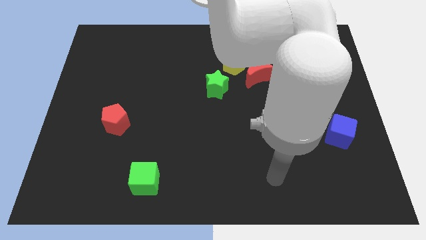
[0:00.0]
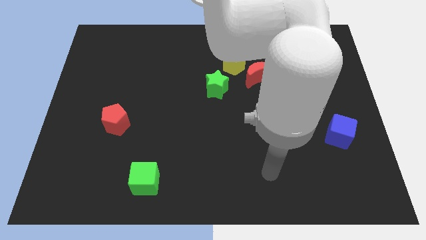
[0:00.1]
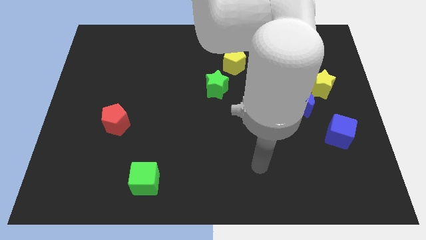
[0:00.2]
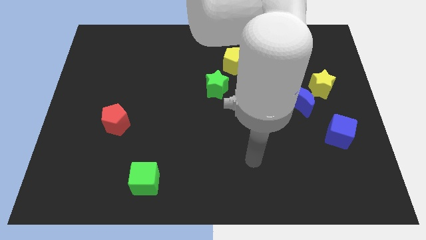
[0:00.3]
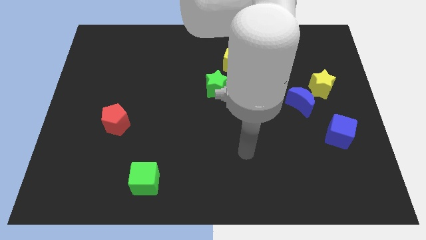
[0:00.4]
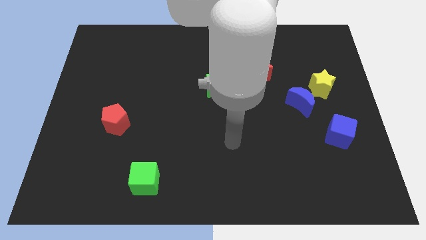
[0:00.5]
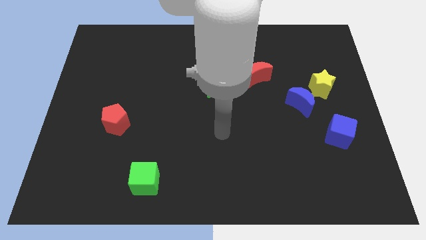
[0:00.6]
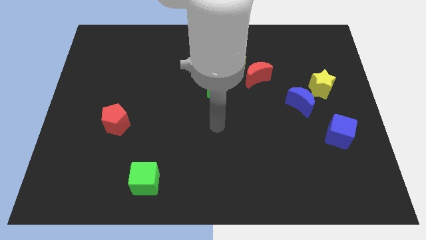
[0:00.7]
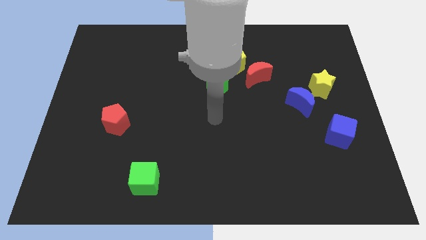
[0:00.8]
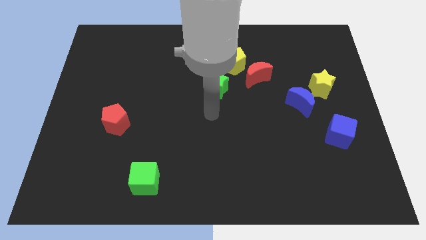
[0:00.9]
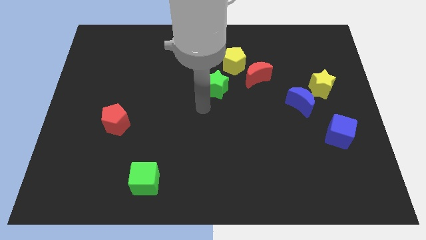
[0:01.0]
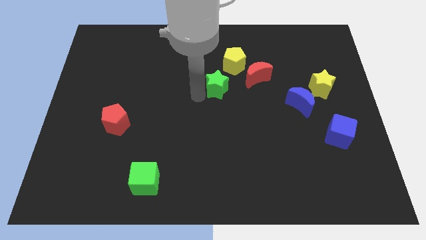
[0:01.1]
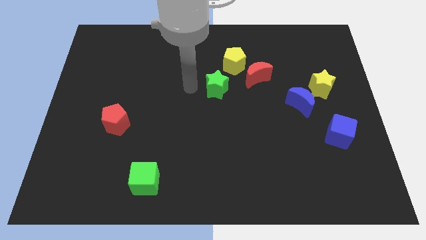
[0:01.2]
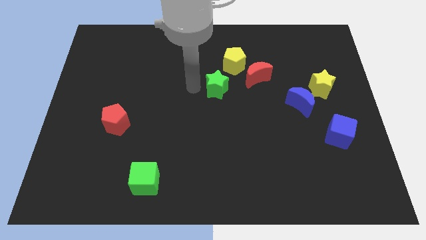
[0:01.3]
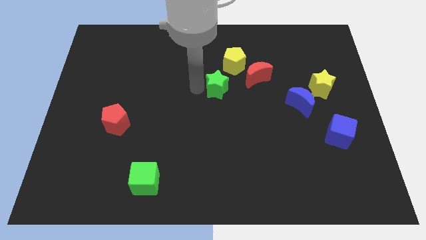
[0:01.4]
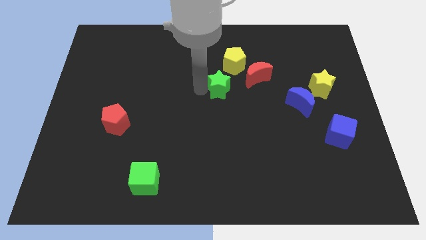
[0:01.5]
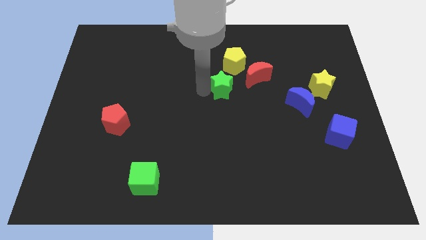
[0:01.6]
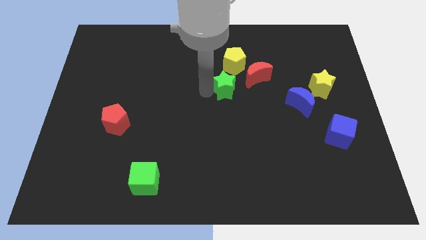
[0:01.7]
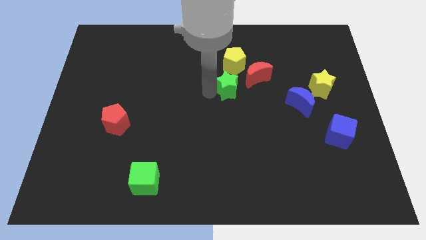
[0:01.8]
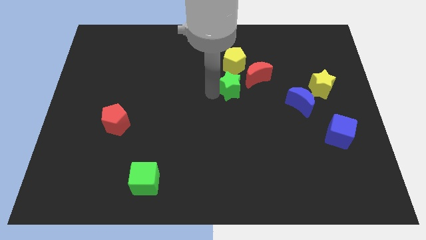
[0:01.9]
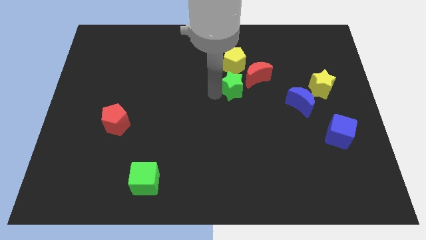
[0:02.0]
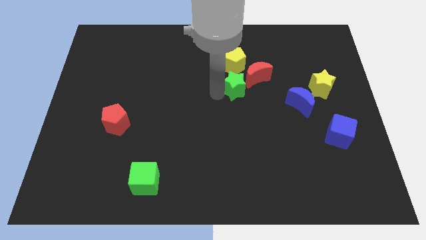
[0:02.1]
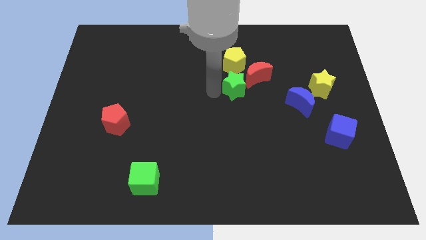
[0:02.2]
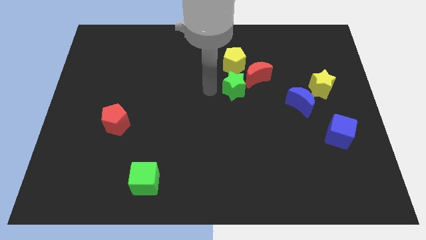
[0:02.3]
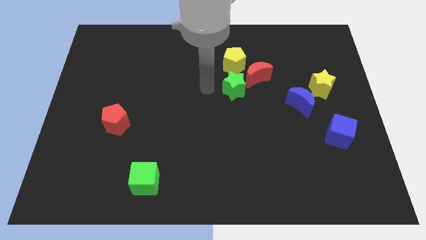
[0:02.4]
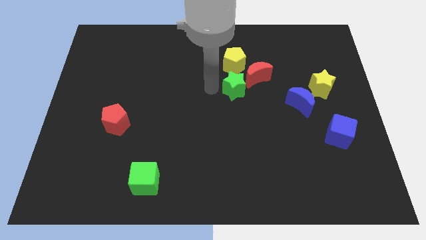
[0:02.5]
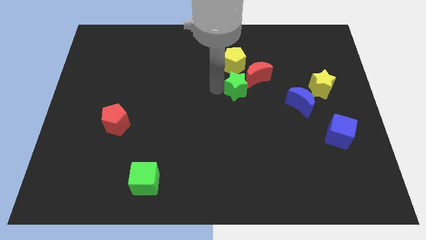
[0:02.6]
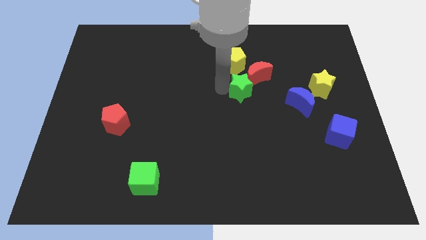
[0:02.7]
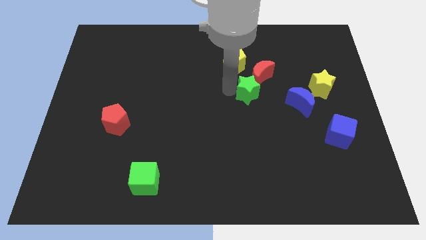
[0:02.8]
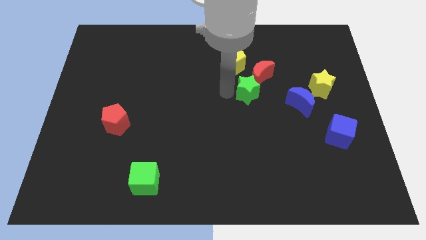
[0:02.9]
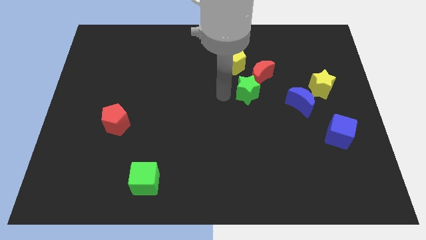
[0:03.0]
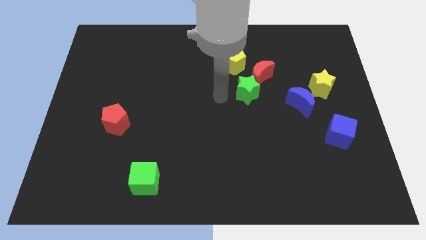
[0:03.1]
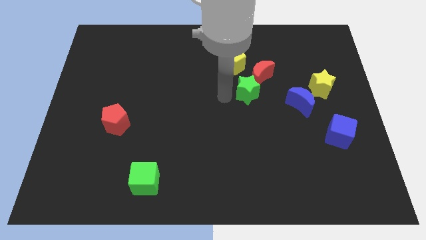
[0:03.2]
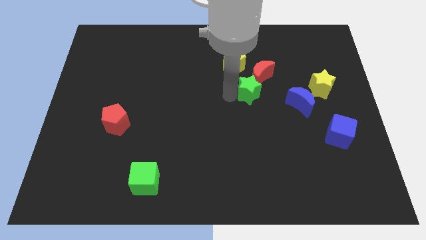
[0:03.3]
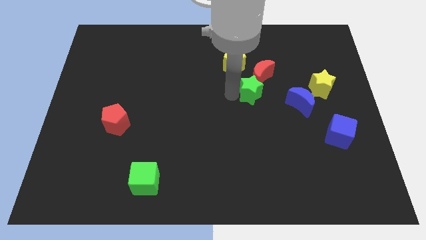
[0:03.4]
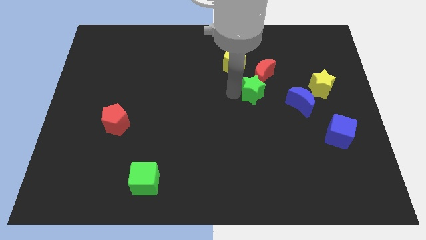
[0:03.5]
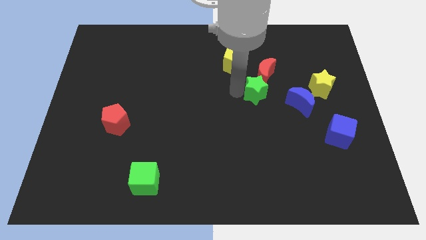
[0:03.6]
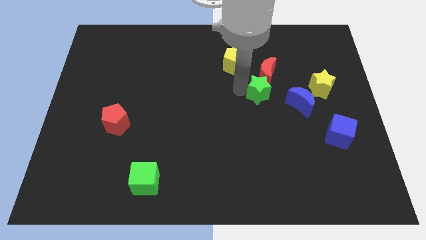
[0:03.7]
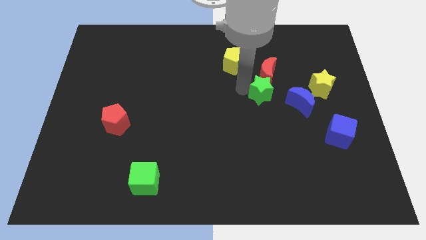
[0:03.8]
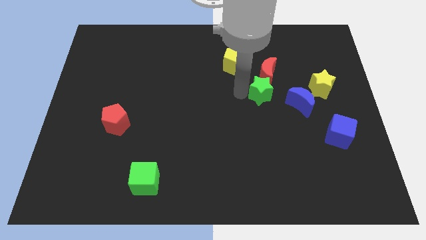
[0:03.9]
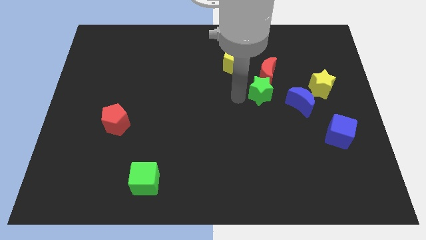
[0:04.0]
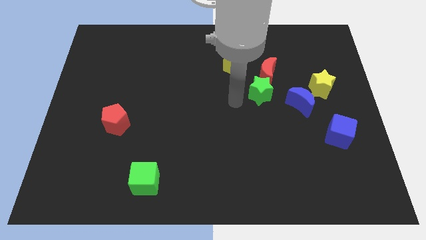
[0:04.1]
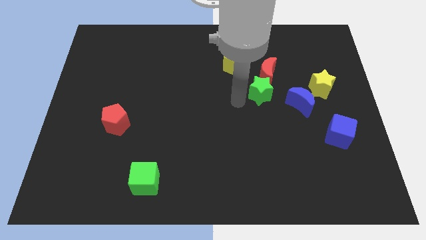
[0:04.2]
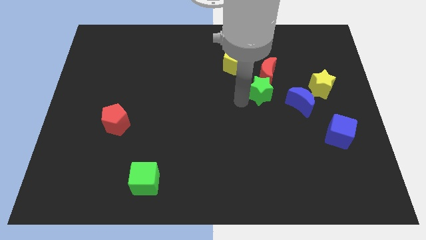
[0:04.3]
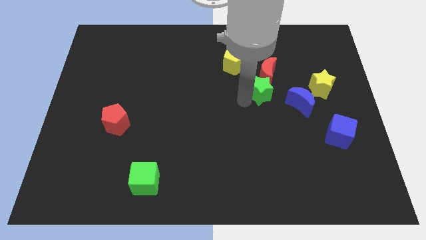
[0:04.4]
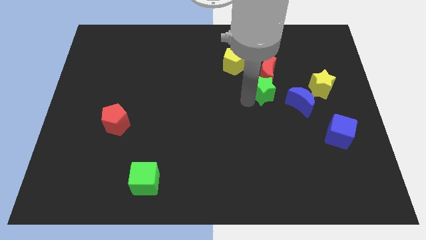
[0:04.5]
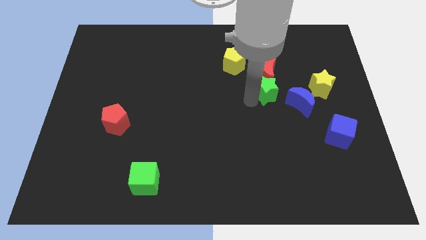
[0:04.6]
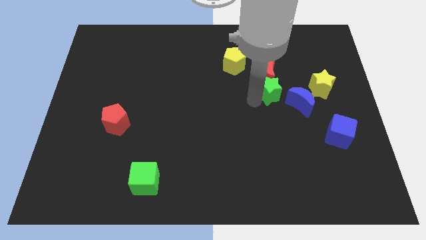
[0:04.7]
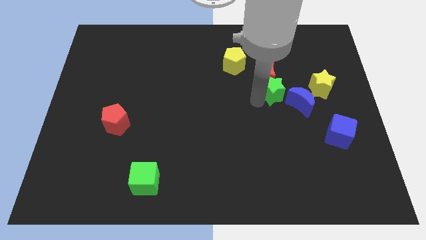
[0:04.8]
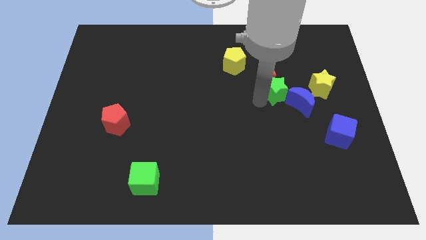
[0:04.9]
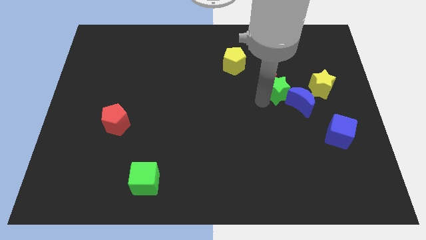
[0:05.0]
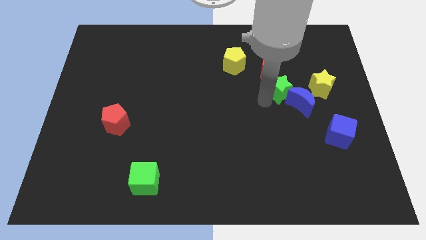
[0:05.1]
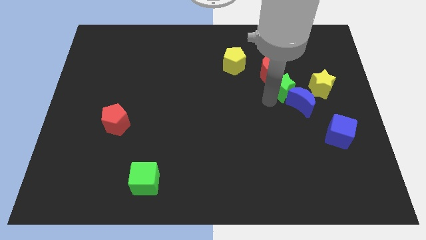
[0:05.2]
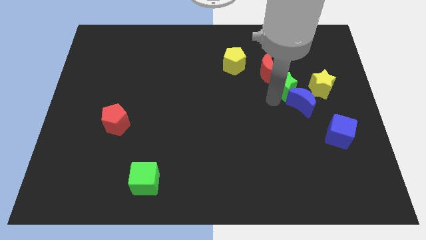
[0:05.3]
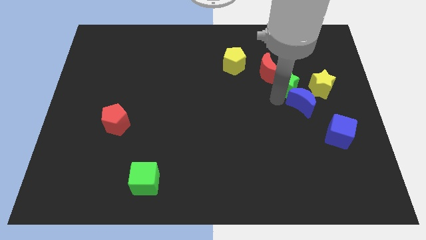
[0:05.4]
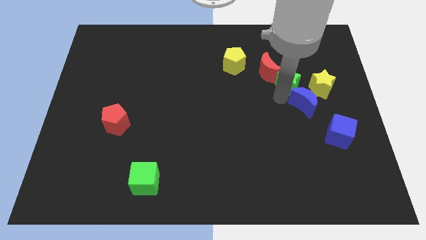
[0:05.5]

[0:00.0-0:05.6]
push the green star just right of the red moon

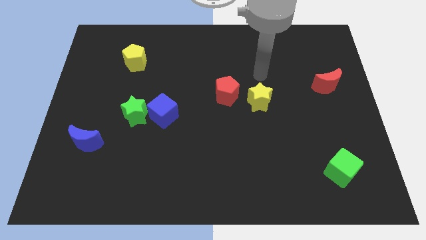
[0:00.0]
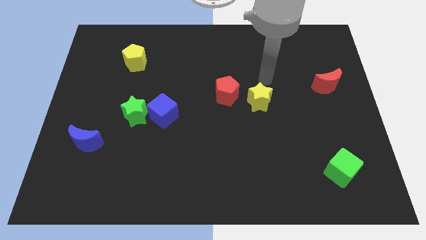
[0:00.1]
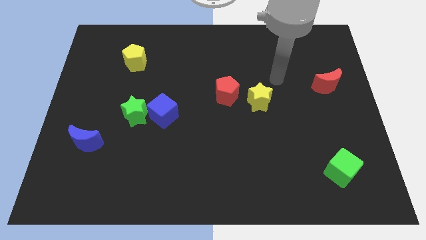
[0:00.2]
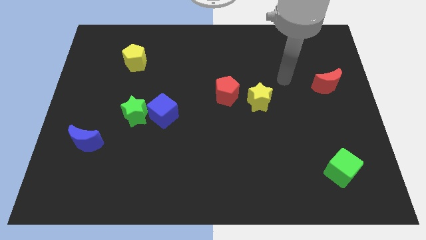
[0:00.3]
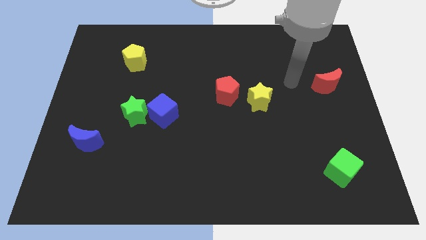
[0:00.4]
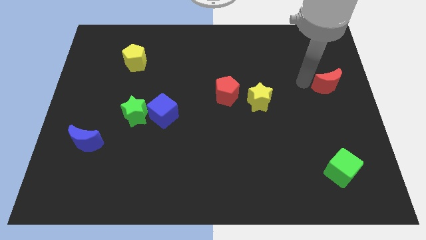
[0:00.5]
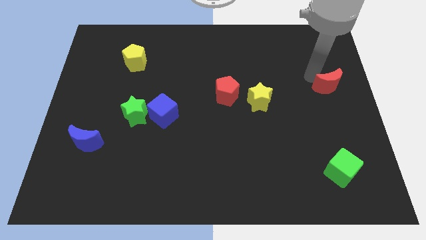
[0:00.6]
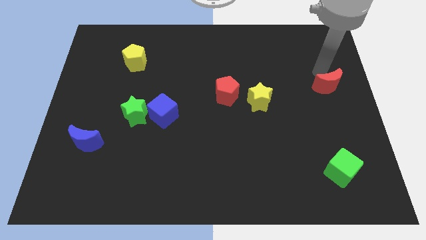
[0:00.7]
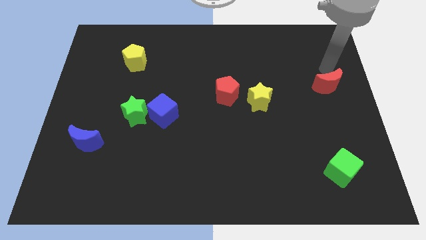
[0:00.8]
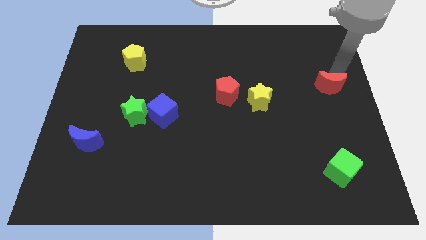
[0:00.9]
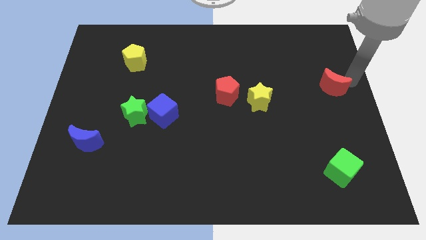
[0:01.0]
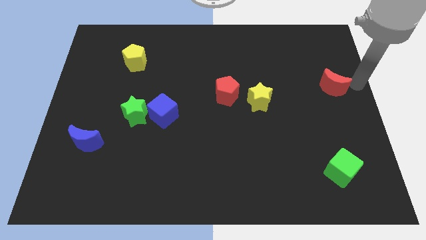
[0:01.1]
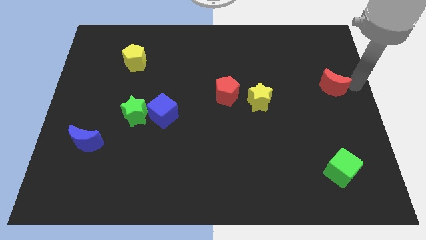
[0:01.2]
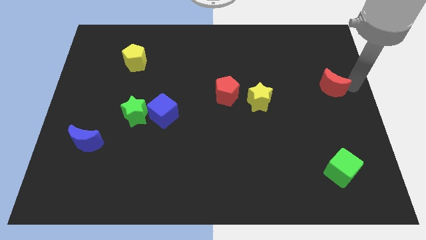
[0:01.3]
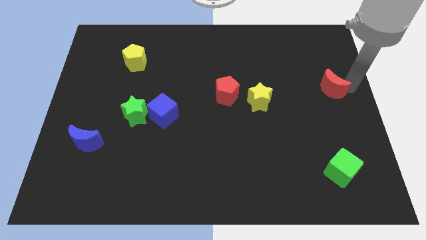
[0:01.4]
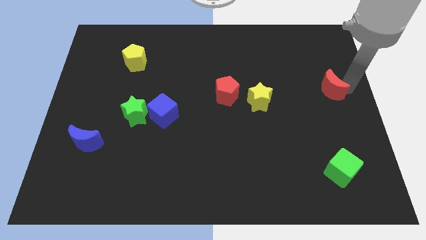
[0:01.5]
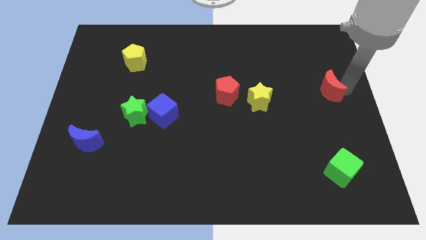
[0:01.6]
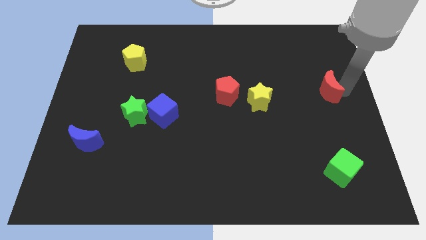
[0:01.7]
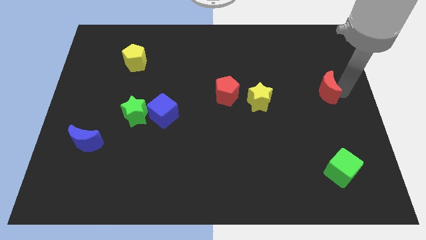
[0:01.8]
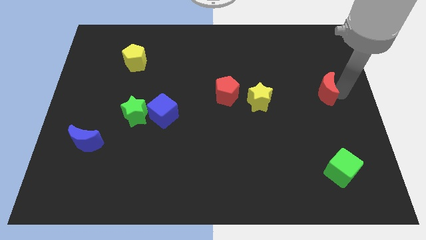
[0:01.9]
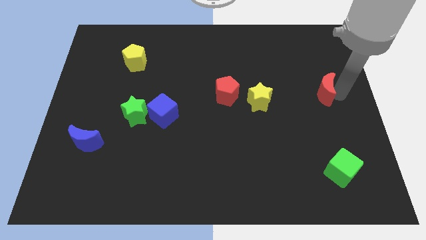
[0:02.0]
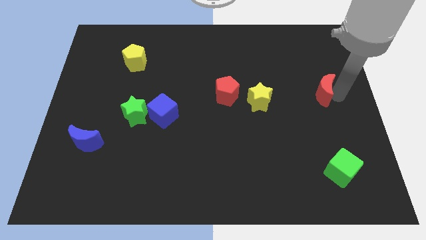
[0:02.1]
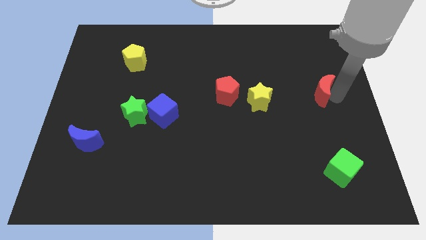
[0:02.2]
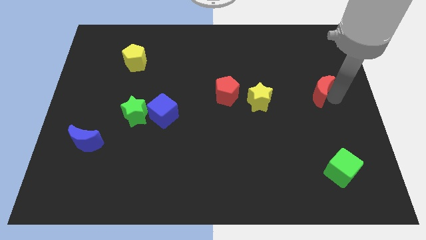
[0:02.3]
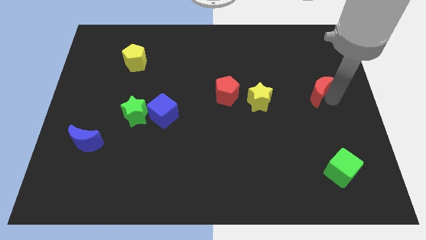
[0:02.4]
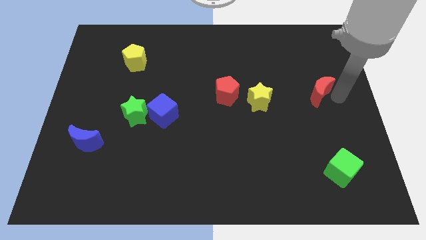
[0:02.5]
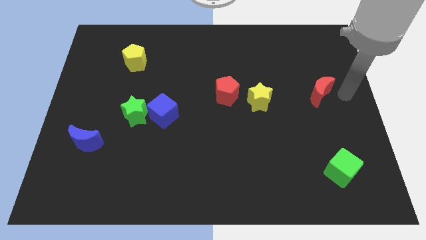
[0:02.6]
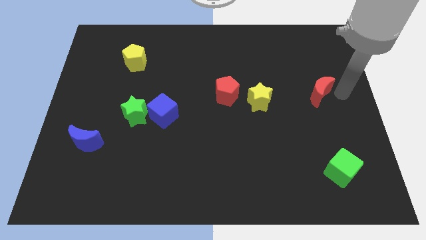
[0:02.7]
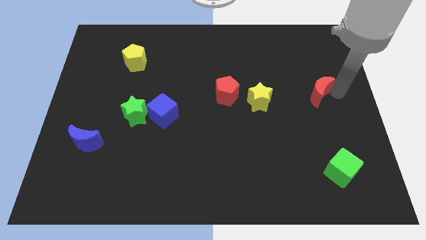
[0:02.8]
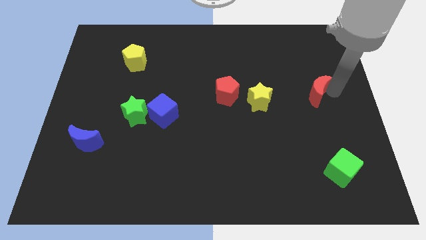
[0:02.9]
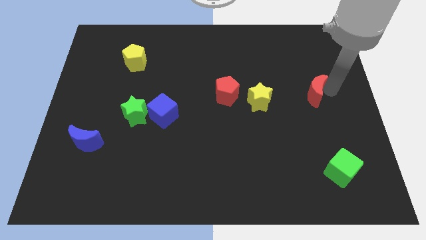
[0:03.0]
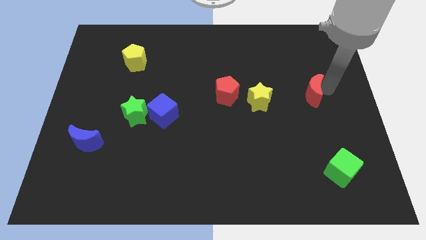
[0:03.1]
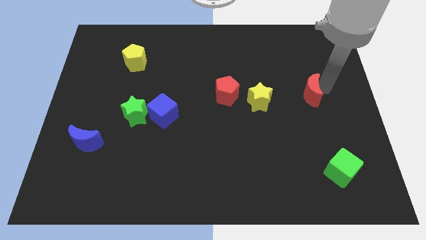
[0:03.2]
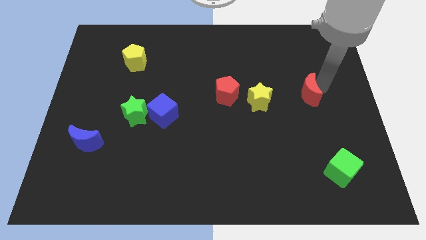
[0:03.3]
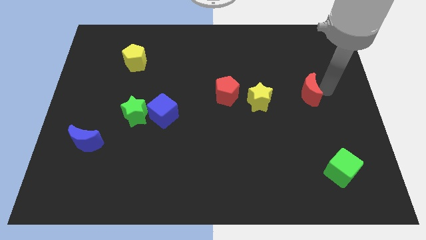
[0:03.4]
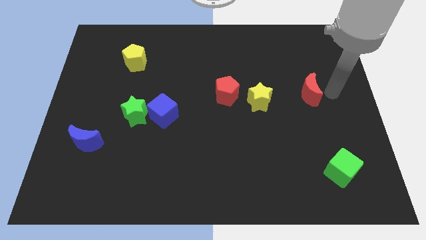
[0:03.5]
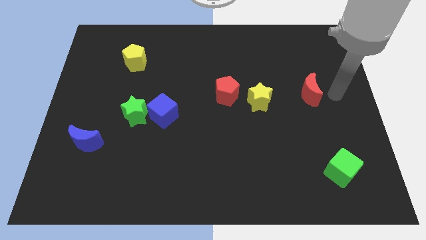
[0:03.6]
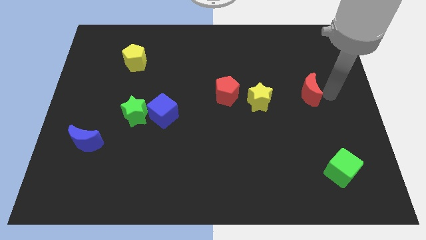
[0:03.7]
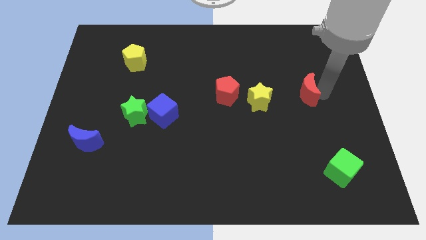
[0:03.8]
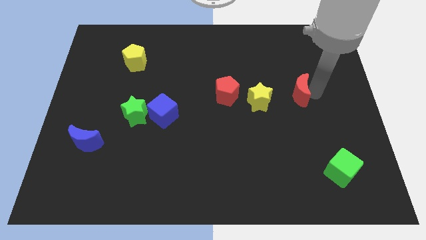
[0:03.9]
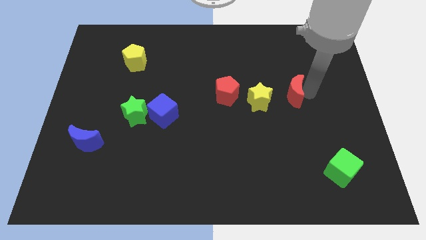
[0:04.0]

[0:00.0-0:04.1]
push the red moon to the right of the red pentagon
